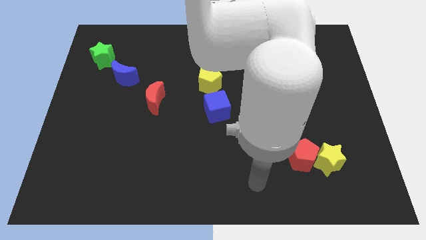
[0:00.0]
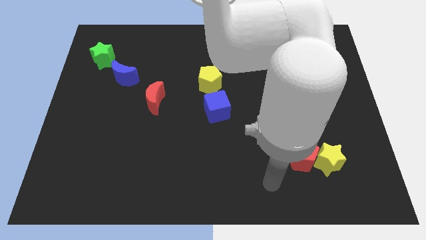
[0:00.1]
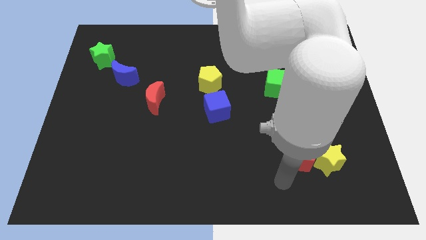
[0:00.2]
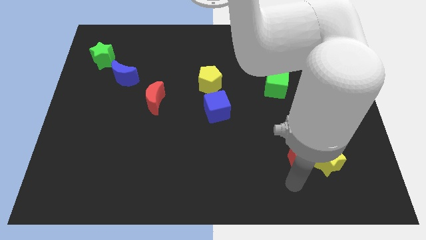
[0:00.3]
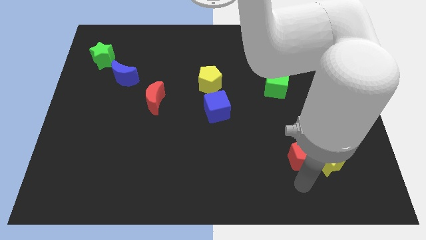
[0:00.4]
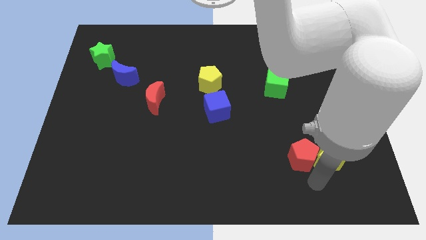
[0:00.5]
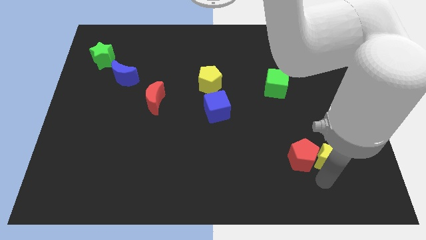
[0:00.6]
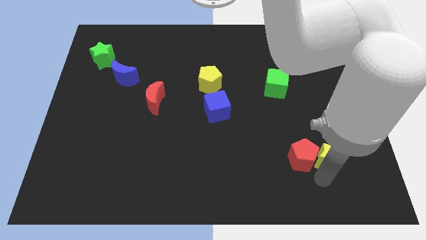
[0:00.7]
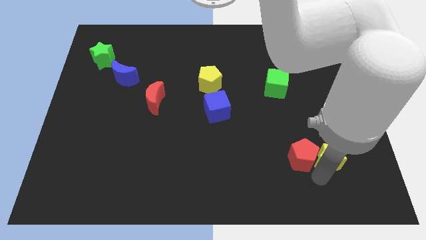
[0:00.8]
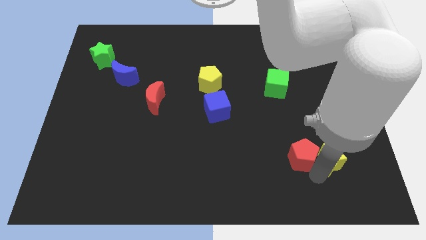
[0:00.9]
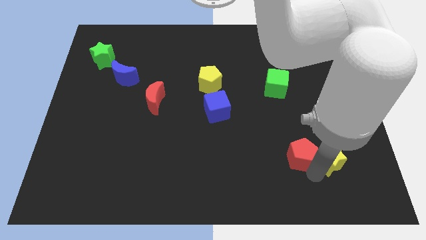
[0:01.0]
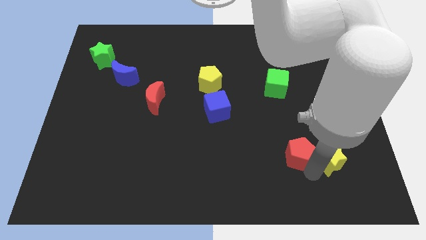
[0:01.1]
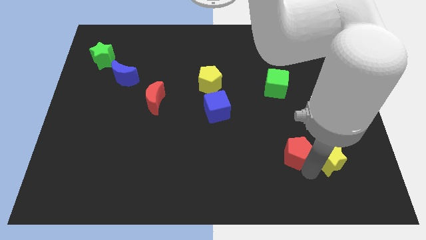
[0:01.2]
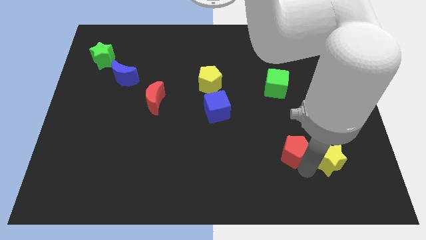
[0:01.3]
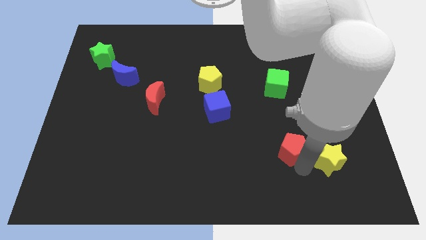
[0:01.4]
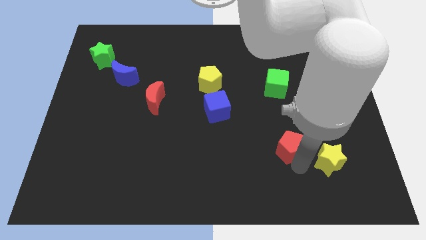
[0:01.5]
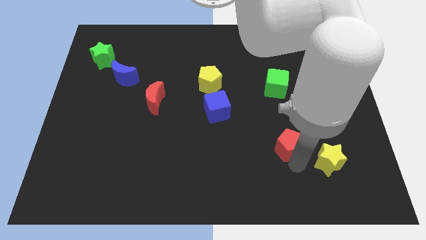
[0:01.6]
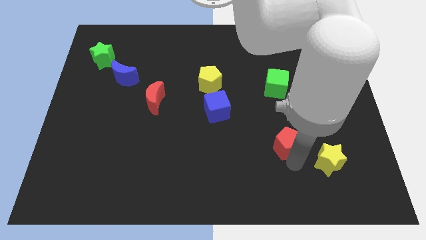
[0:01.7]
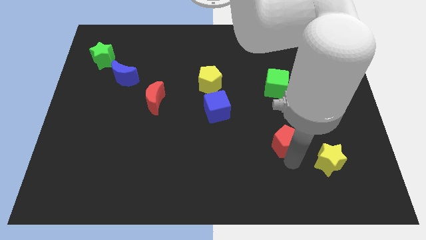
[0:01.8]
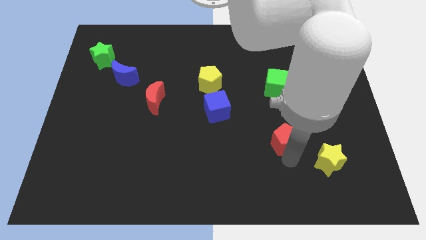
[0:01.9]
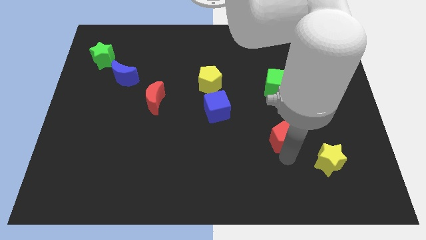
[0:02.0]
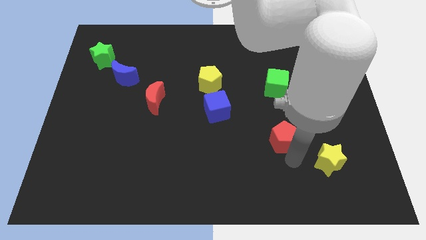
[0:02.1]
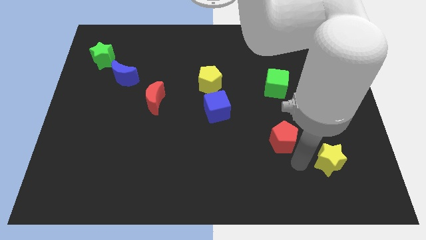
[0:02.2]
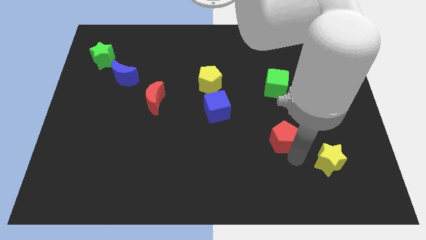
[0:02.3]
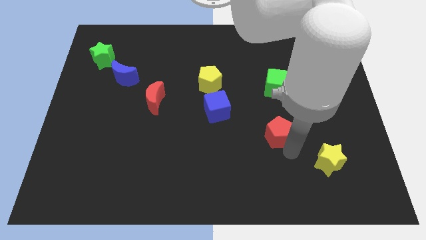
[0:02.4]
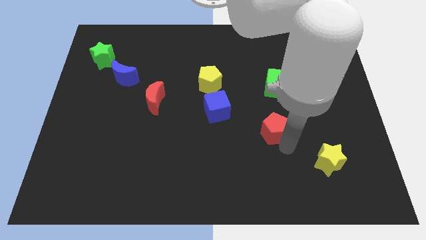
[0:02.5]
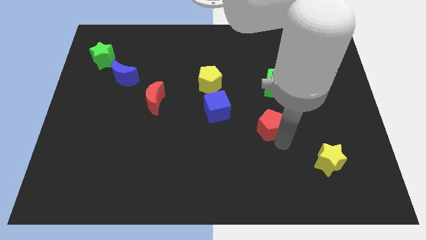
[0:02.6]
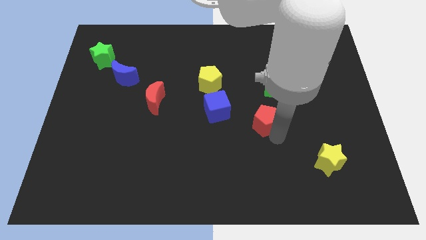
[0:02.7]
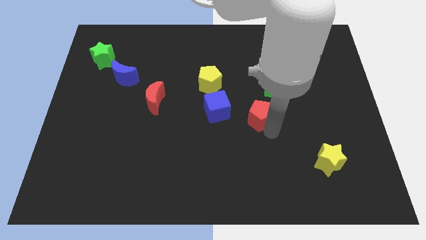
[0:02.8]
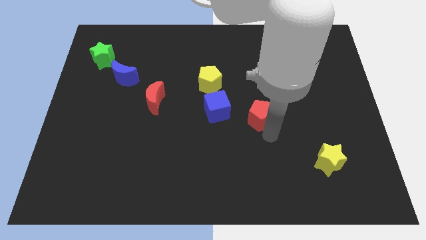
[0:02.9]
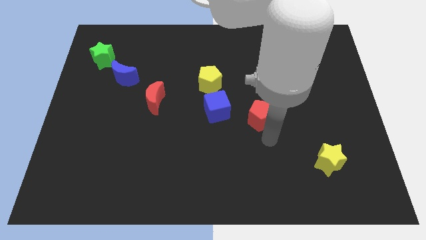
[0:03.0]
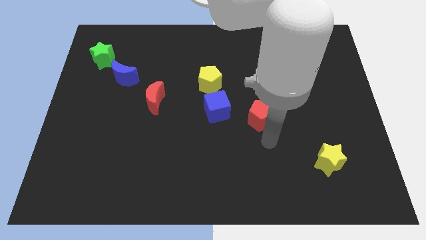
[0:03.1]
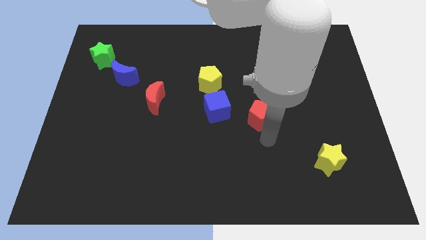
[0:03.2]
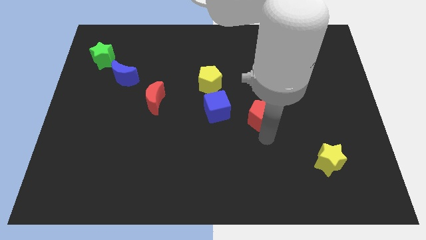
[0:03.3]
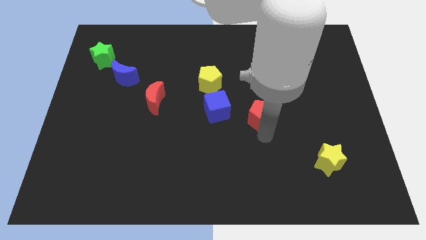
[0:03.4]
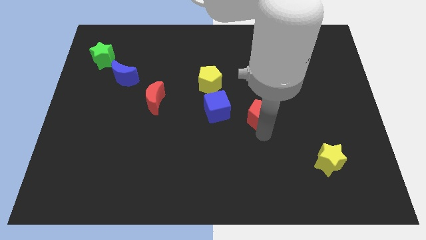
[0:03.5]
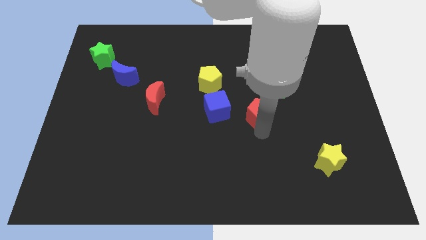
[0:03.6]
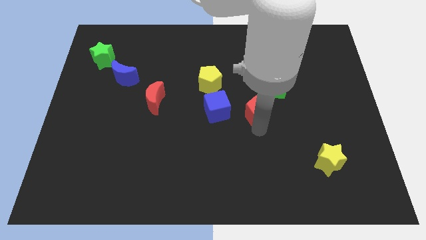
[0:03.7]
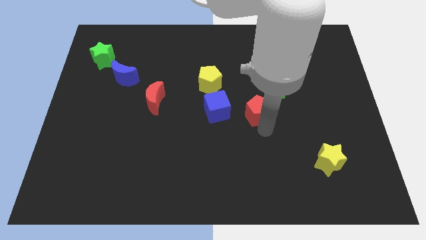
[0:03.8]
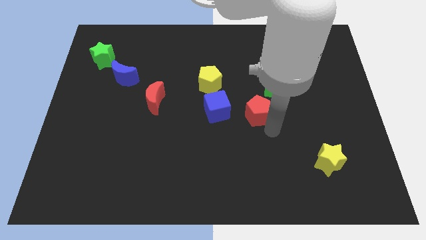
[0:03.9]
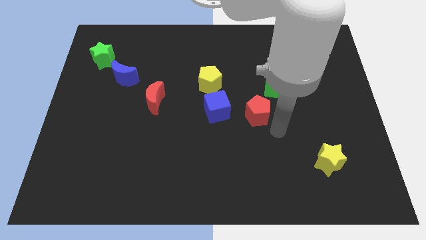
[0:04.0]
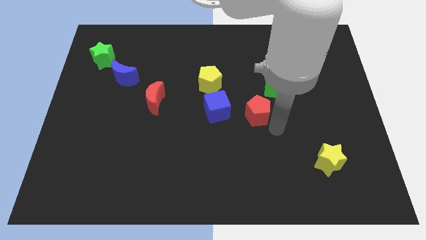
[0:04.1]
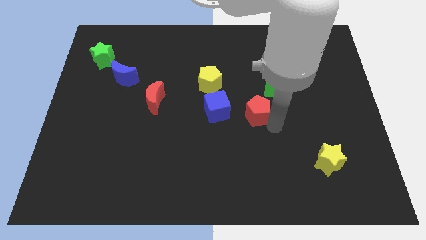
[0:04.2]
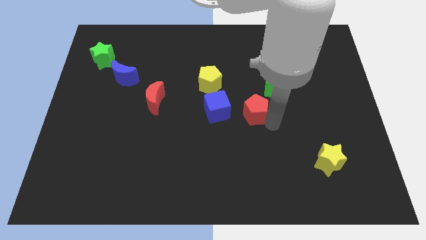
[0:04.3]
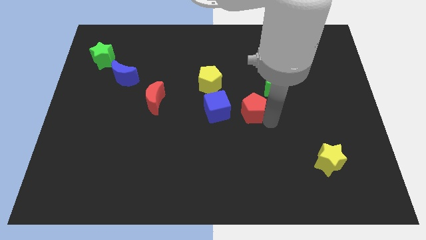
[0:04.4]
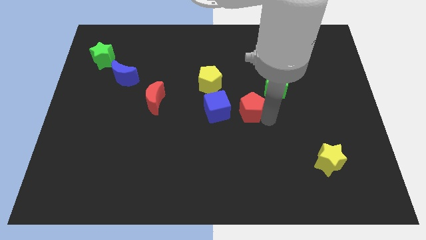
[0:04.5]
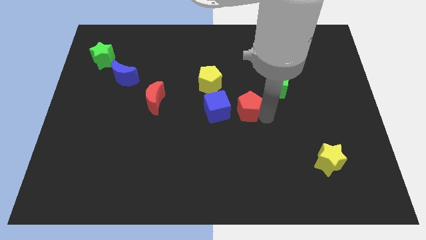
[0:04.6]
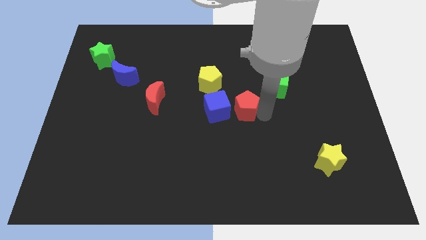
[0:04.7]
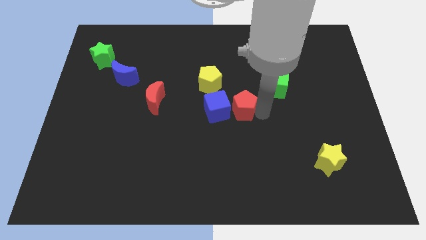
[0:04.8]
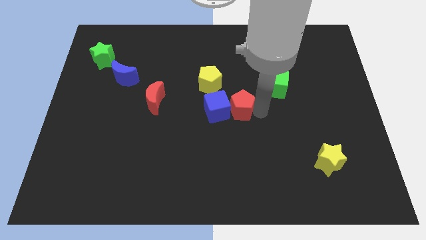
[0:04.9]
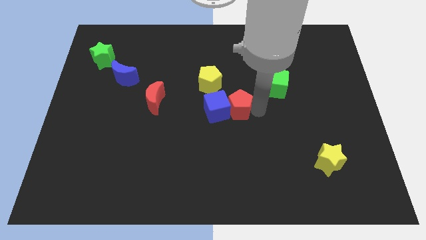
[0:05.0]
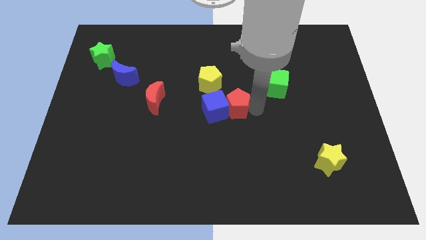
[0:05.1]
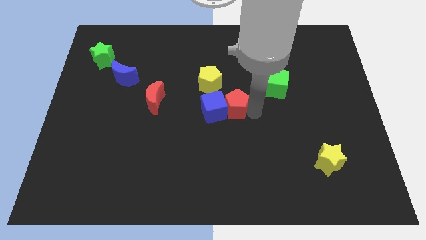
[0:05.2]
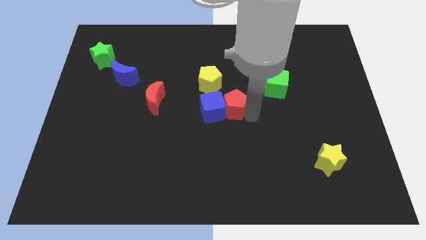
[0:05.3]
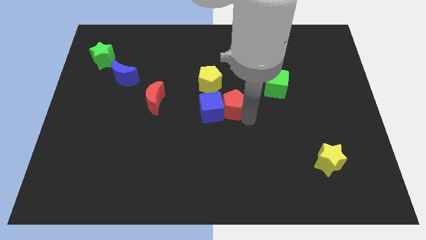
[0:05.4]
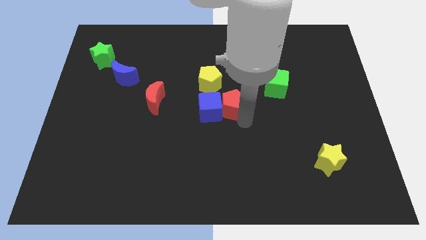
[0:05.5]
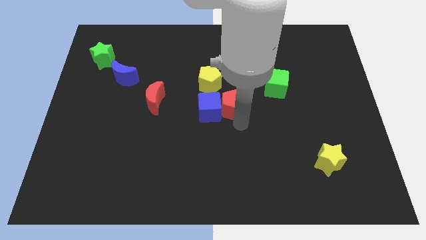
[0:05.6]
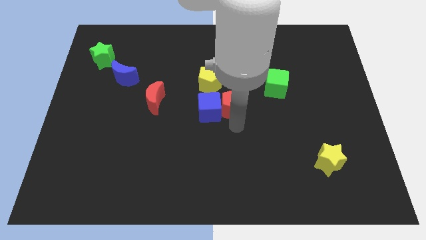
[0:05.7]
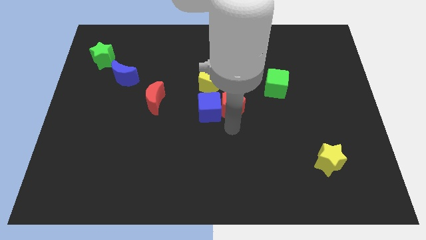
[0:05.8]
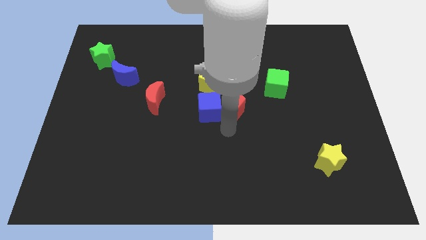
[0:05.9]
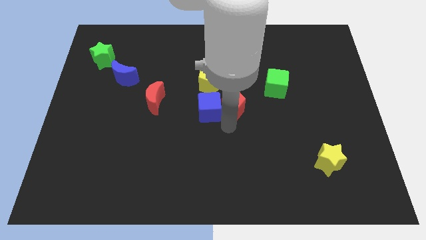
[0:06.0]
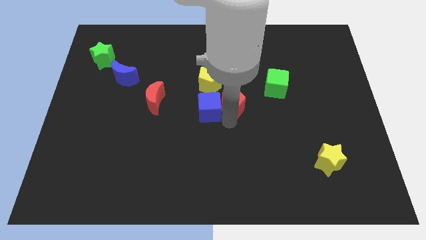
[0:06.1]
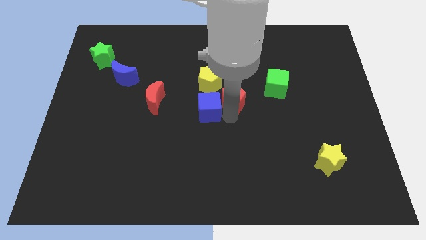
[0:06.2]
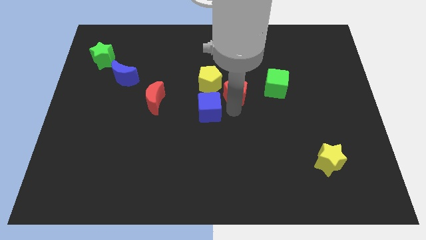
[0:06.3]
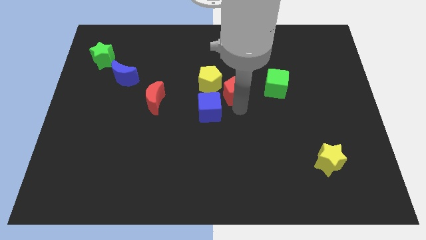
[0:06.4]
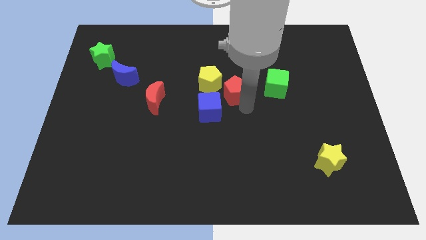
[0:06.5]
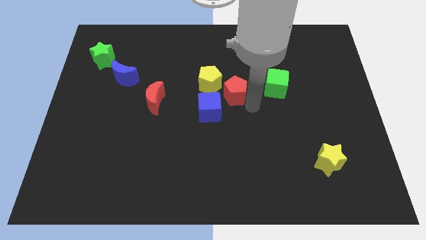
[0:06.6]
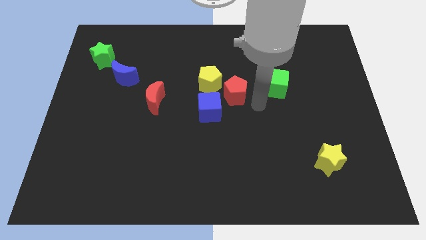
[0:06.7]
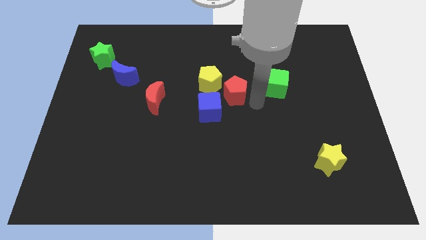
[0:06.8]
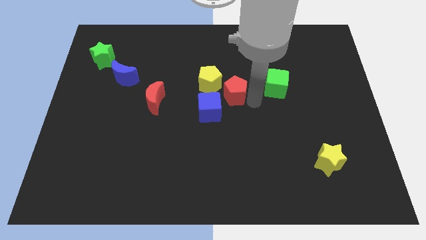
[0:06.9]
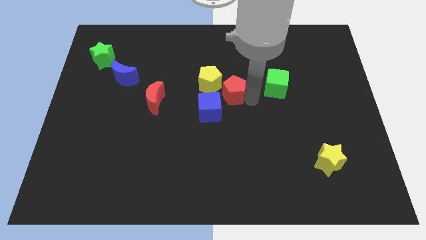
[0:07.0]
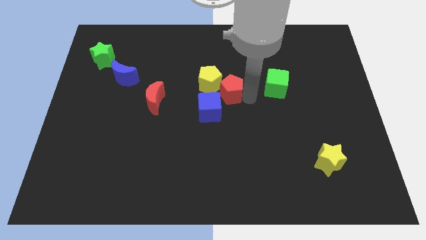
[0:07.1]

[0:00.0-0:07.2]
slide the red pentagon towards the yellow pentagon
